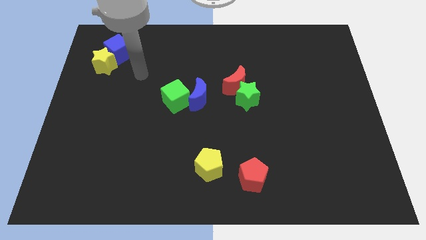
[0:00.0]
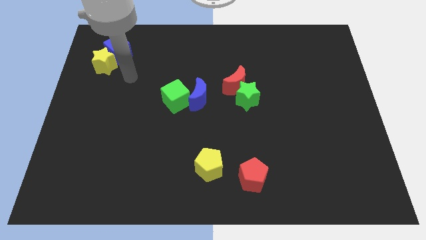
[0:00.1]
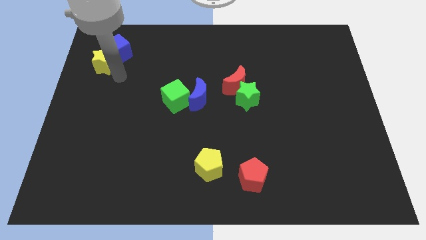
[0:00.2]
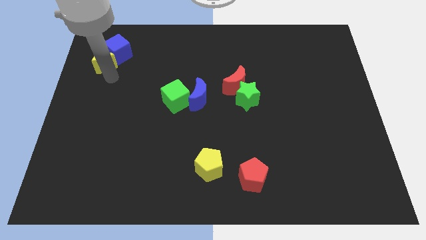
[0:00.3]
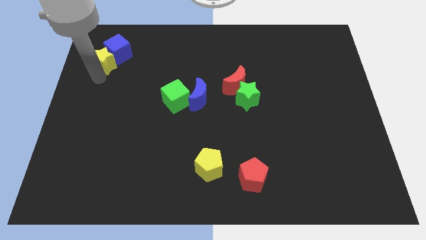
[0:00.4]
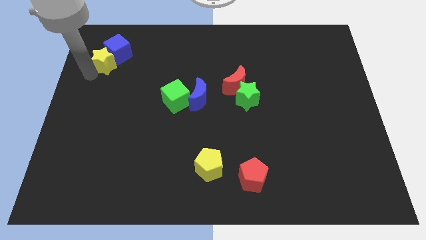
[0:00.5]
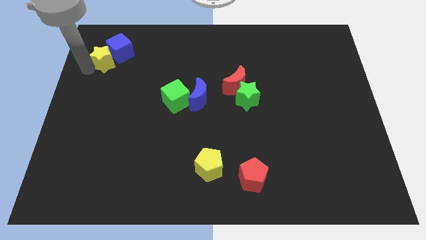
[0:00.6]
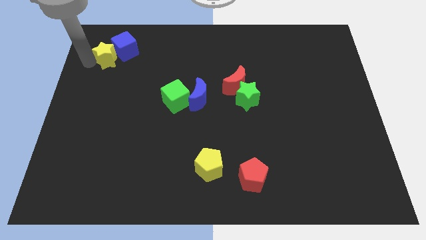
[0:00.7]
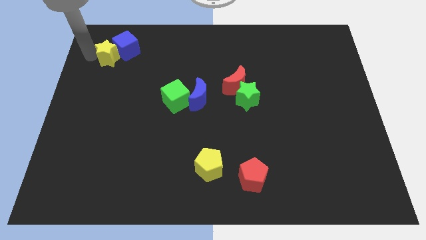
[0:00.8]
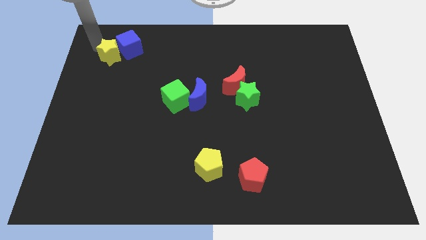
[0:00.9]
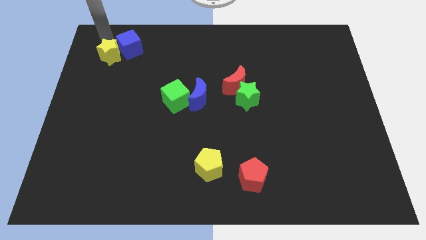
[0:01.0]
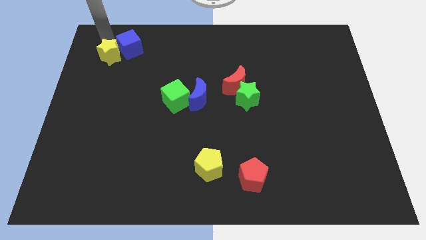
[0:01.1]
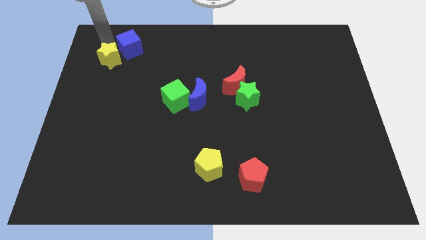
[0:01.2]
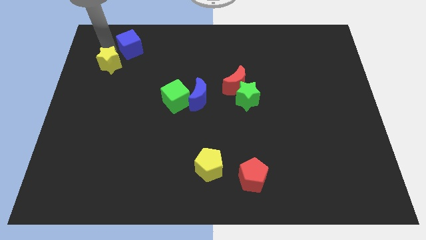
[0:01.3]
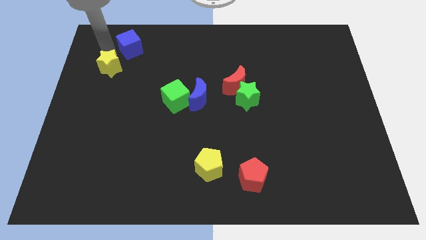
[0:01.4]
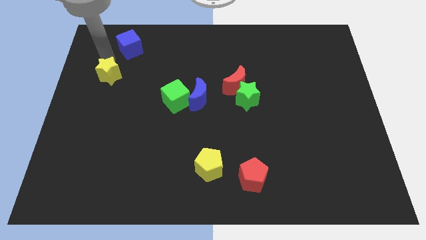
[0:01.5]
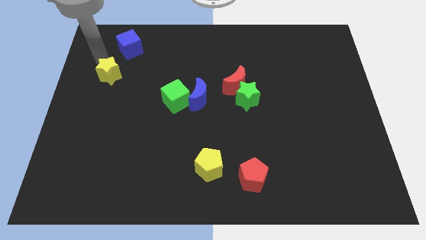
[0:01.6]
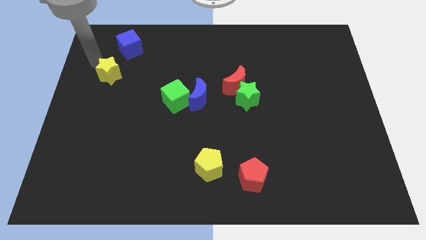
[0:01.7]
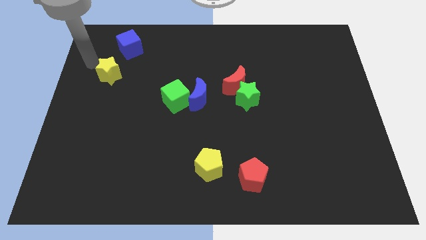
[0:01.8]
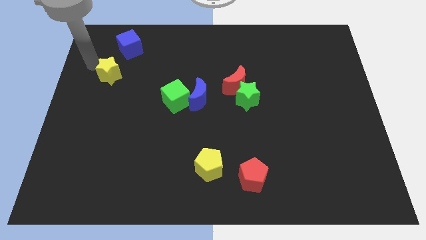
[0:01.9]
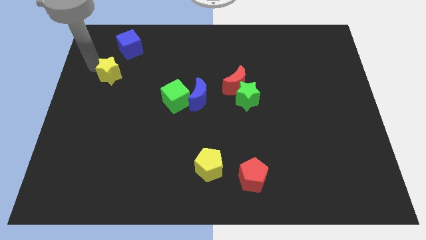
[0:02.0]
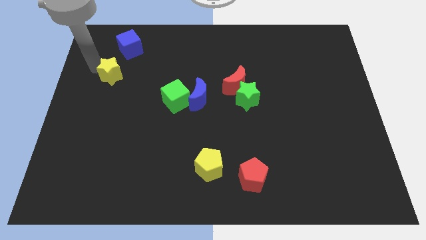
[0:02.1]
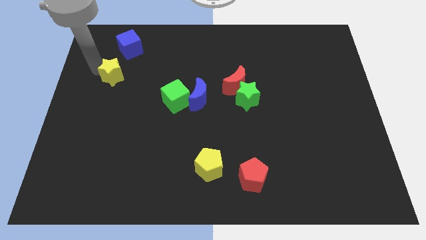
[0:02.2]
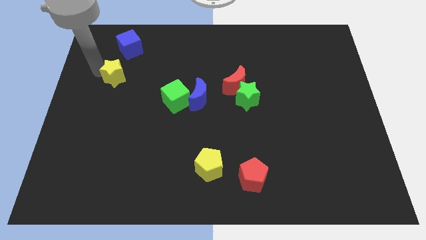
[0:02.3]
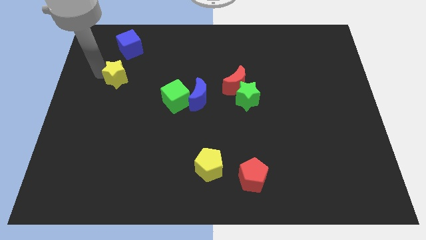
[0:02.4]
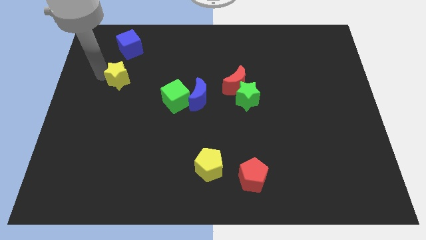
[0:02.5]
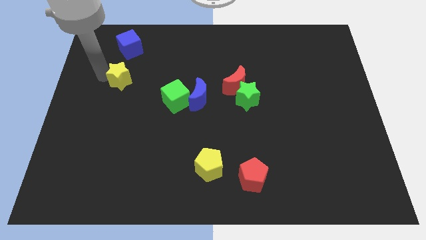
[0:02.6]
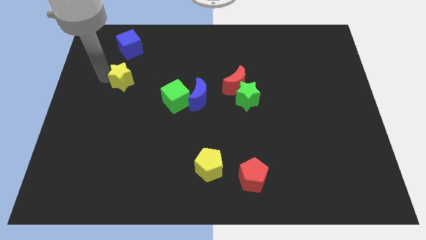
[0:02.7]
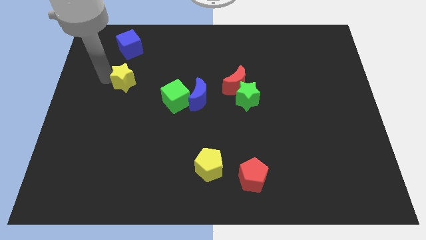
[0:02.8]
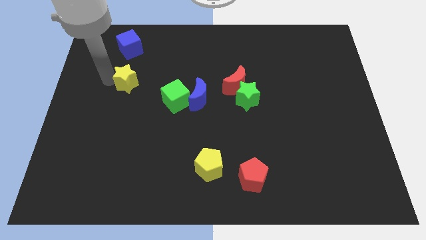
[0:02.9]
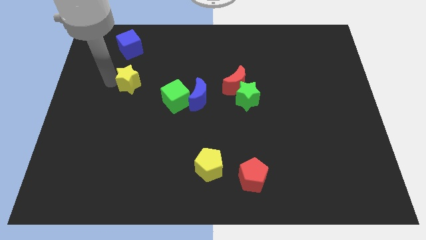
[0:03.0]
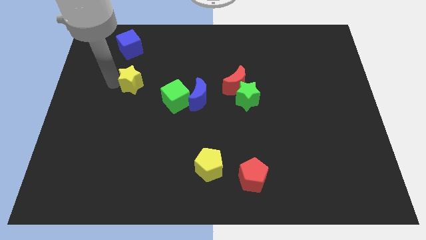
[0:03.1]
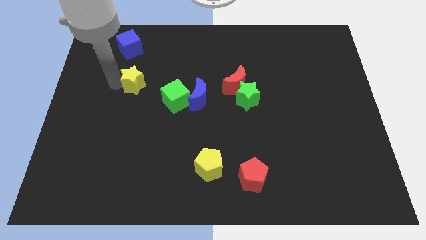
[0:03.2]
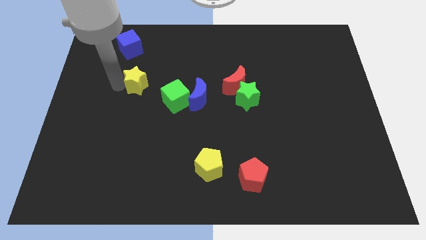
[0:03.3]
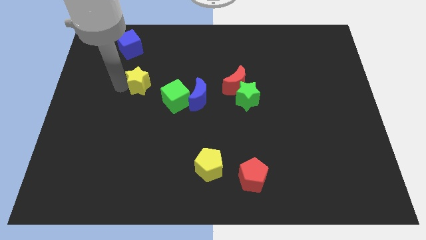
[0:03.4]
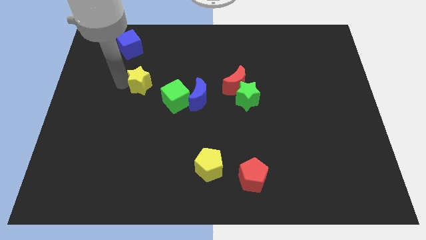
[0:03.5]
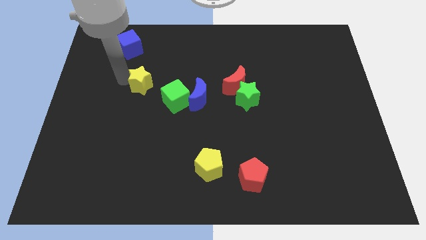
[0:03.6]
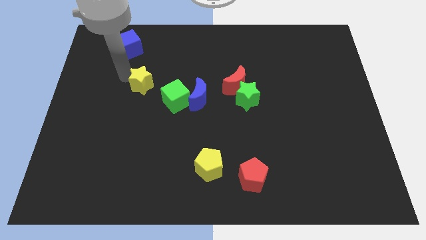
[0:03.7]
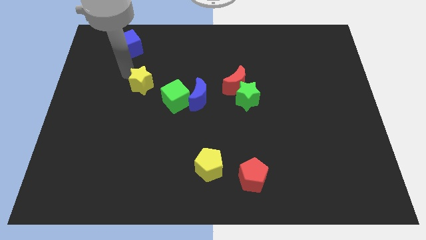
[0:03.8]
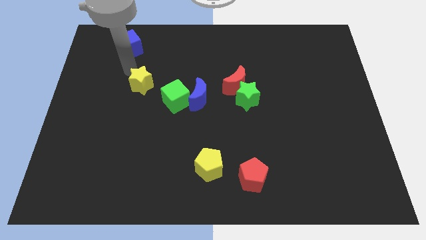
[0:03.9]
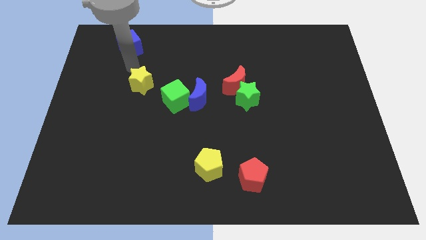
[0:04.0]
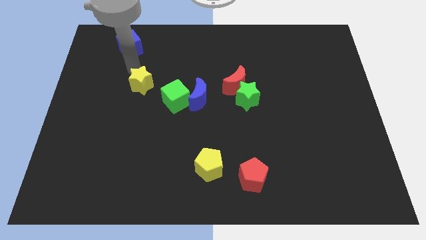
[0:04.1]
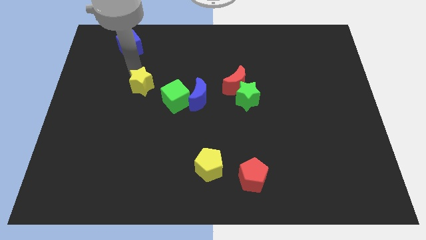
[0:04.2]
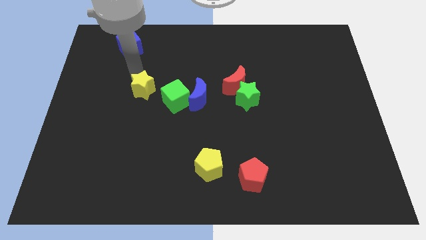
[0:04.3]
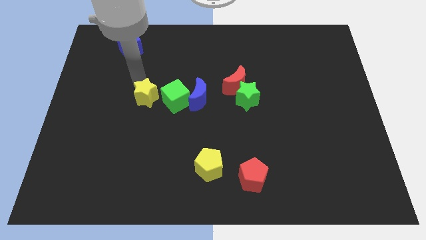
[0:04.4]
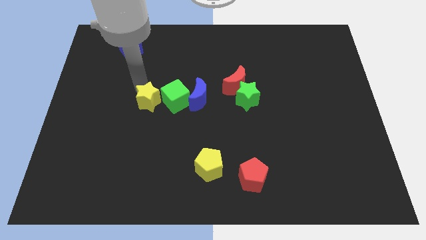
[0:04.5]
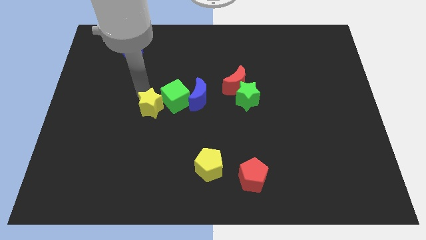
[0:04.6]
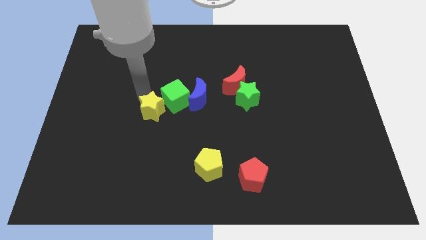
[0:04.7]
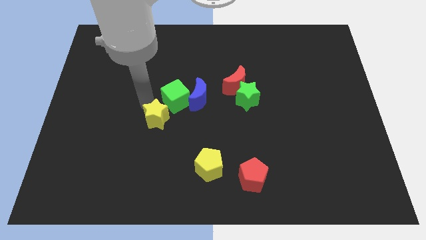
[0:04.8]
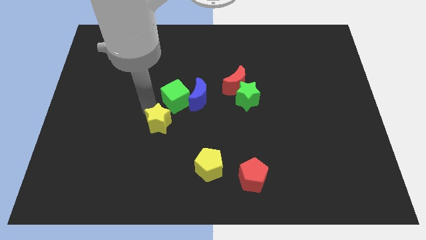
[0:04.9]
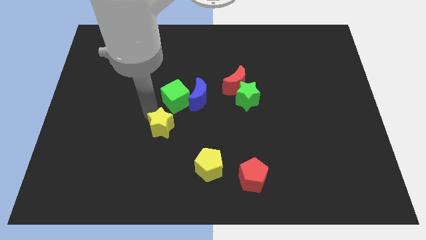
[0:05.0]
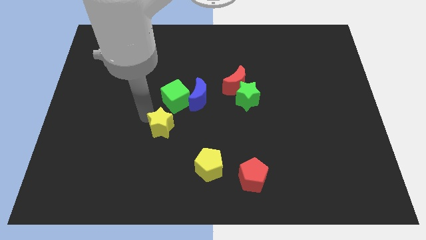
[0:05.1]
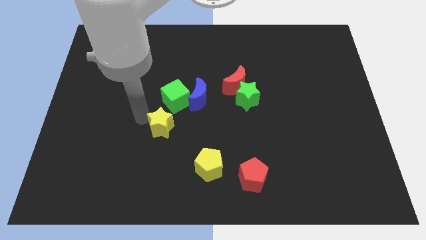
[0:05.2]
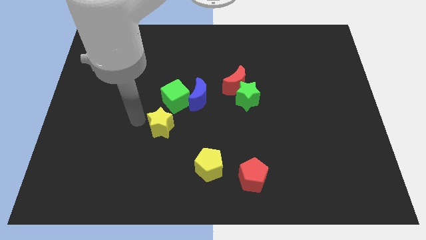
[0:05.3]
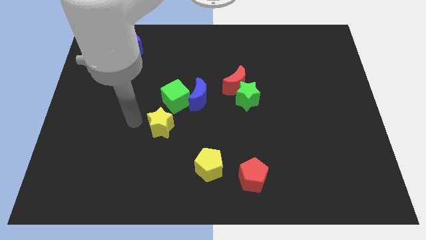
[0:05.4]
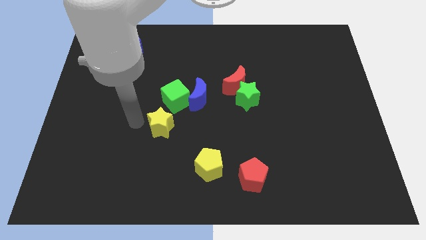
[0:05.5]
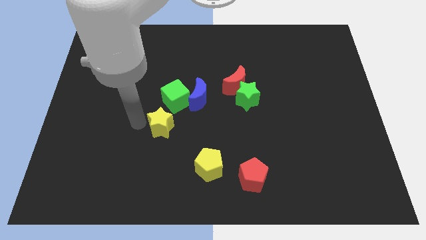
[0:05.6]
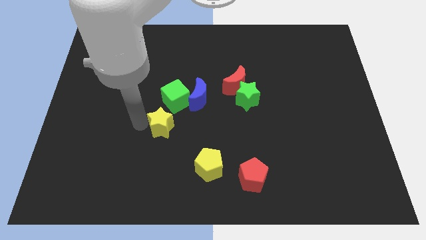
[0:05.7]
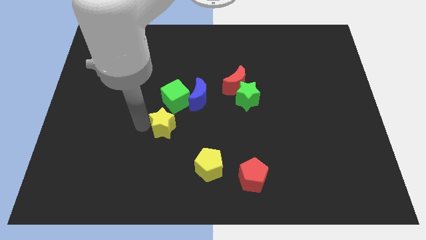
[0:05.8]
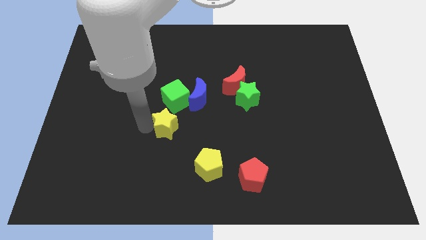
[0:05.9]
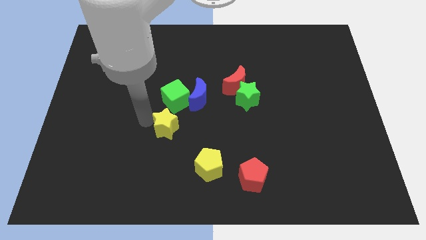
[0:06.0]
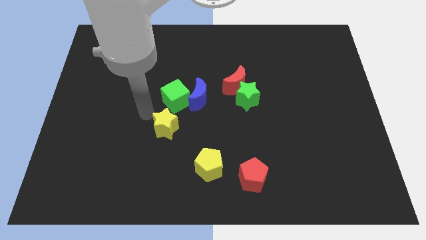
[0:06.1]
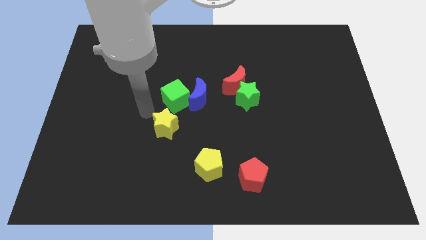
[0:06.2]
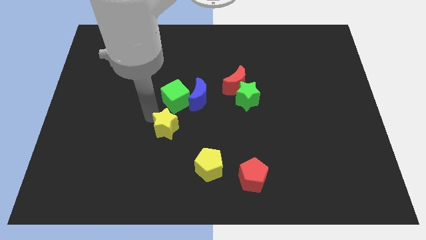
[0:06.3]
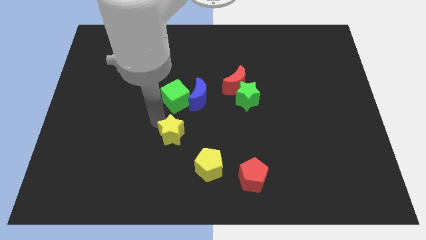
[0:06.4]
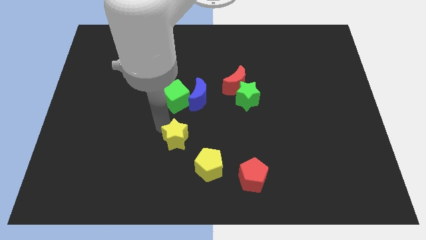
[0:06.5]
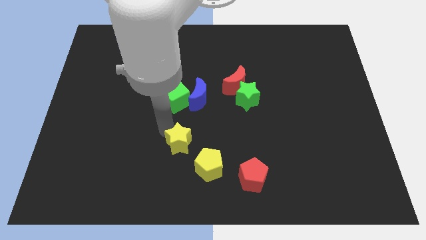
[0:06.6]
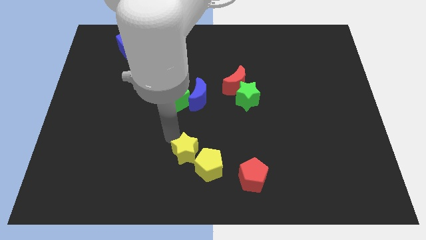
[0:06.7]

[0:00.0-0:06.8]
slide the yellow star towards the yellow pentagon

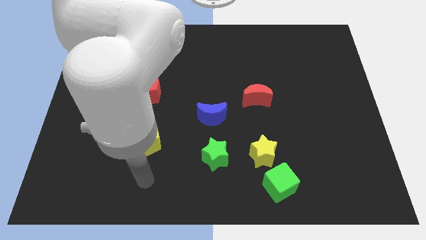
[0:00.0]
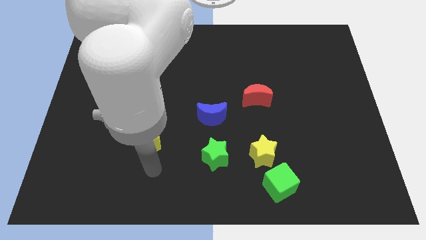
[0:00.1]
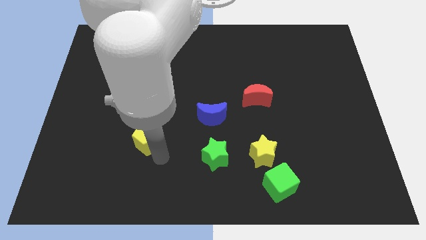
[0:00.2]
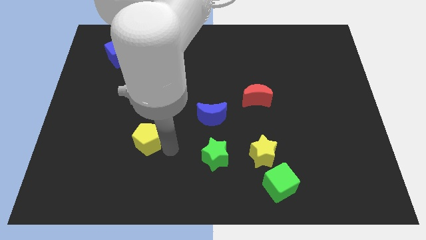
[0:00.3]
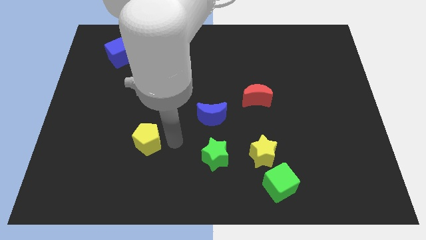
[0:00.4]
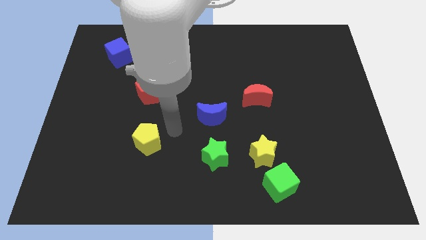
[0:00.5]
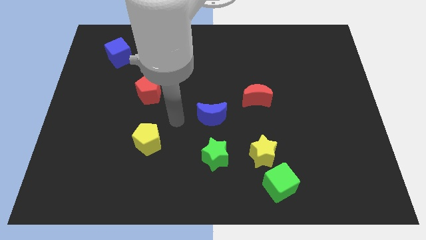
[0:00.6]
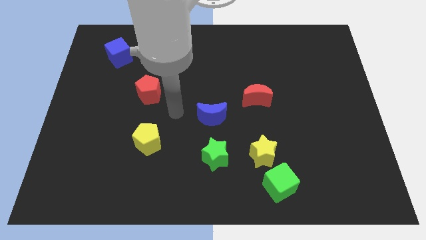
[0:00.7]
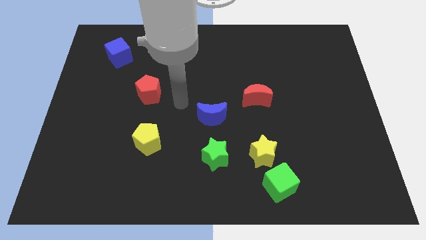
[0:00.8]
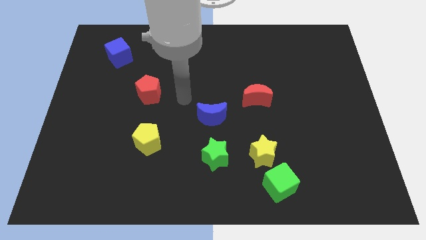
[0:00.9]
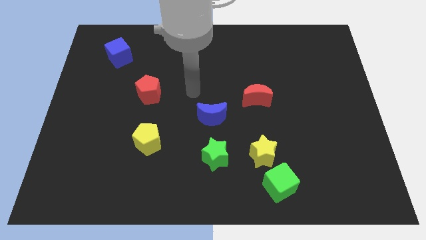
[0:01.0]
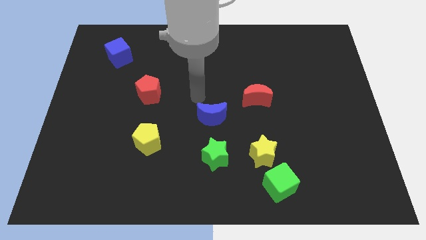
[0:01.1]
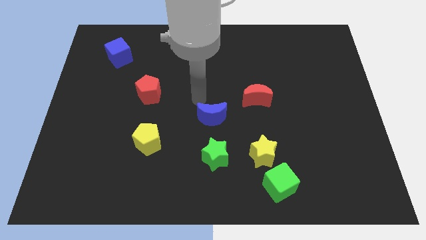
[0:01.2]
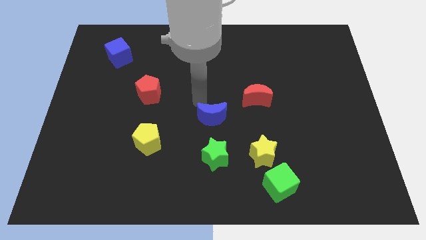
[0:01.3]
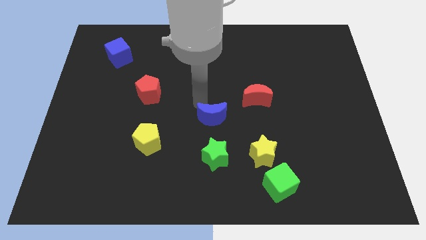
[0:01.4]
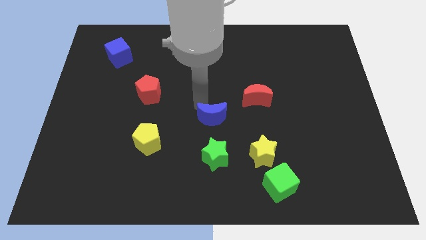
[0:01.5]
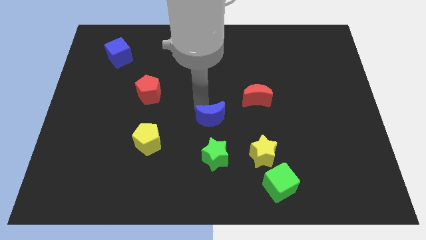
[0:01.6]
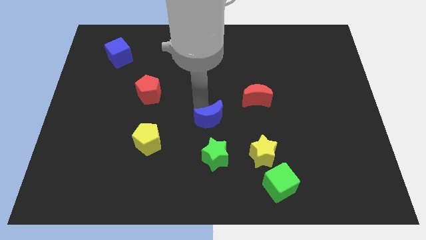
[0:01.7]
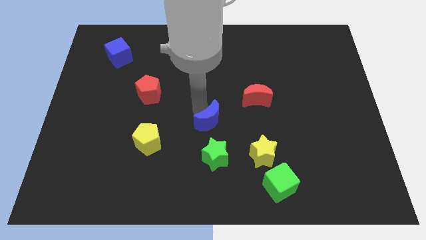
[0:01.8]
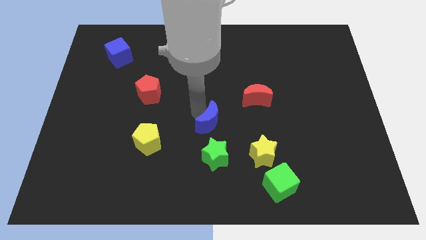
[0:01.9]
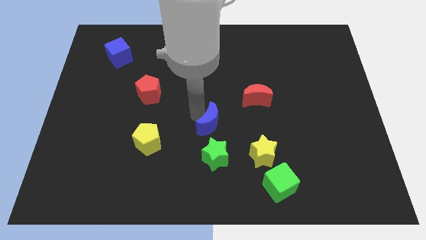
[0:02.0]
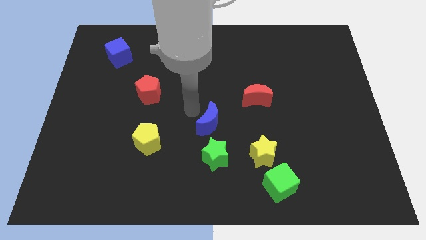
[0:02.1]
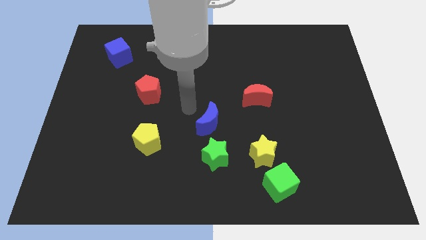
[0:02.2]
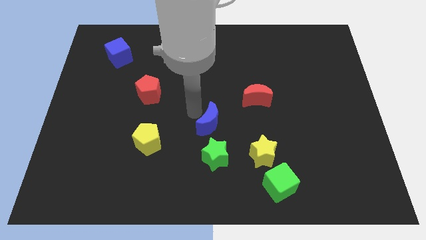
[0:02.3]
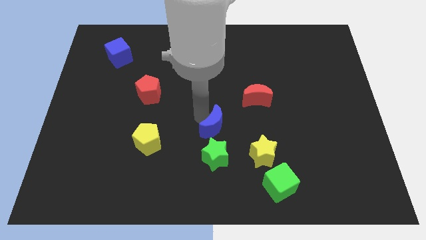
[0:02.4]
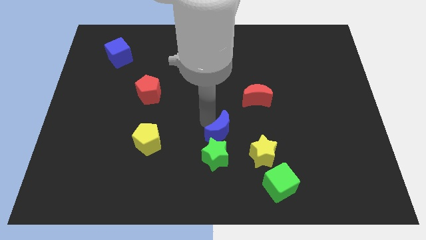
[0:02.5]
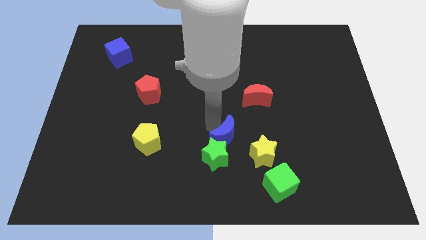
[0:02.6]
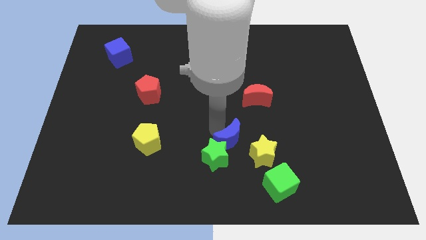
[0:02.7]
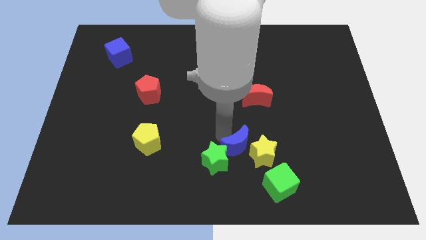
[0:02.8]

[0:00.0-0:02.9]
put the blue moon to the yellow star
